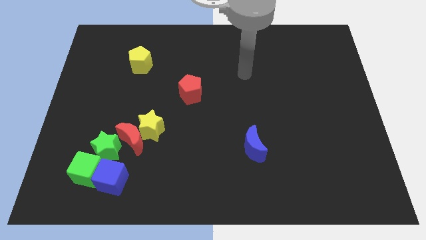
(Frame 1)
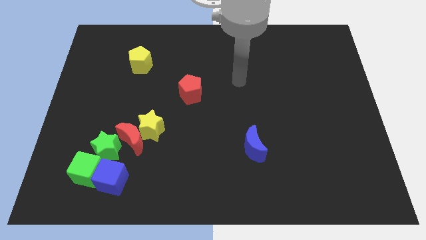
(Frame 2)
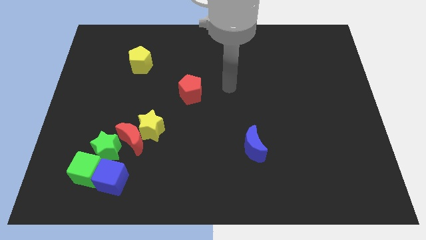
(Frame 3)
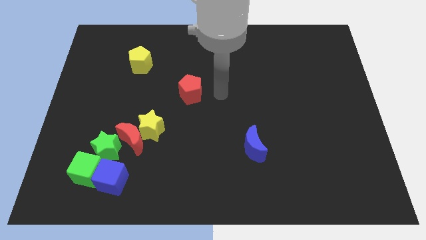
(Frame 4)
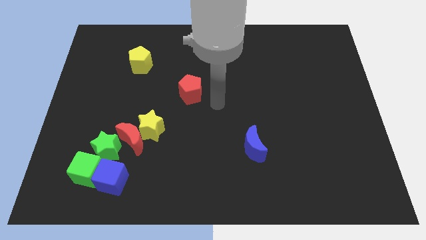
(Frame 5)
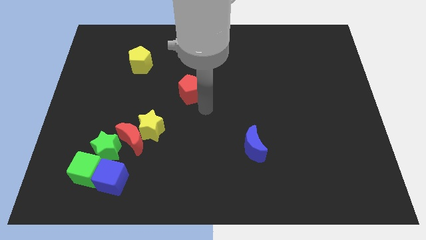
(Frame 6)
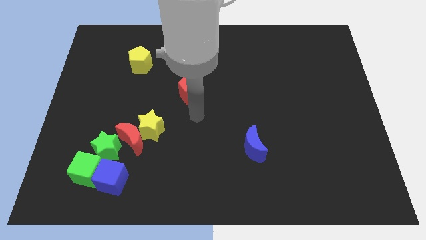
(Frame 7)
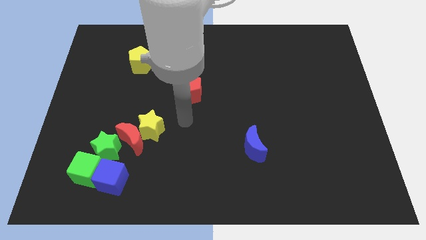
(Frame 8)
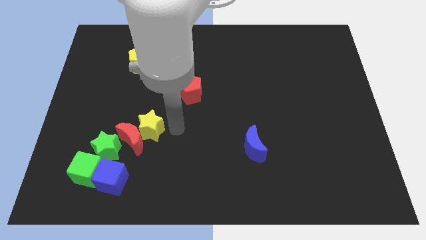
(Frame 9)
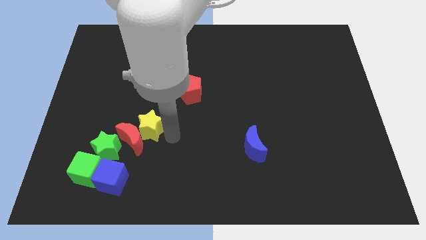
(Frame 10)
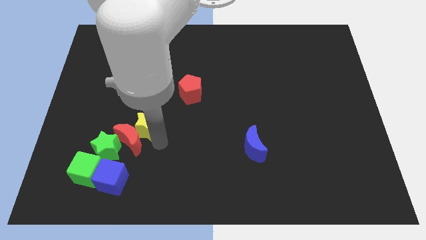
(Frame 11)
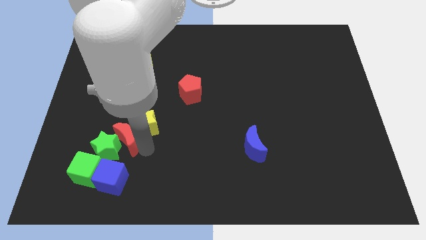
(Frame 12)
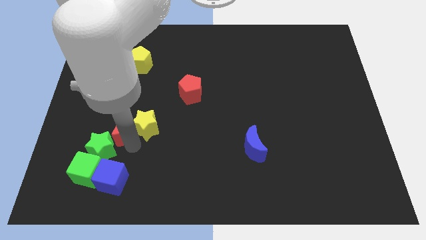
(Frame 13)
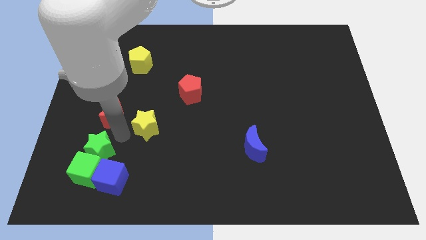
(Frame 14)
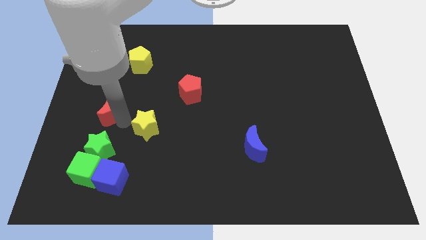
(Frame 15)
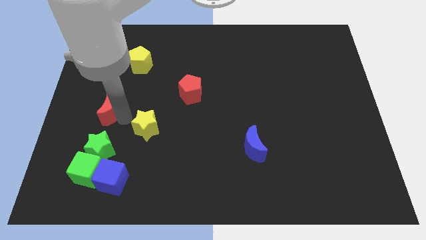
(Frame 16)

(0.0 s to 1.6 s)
move the yellow star away from the red moon

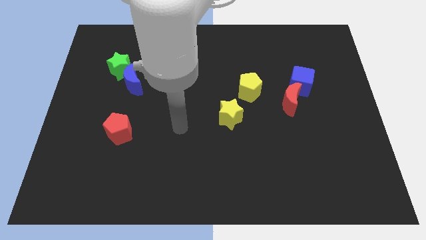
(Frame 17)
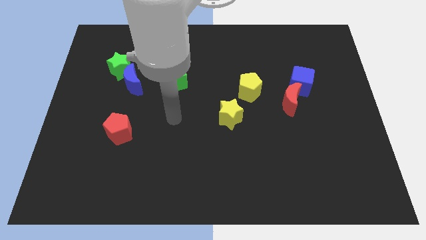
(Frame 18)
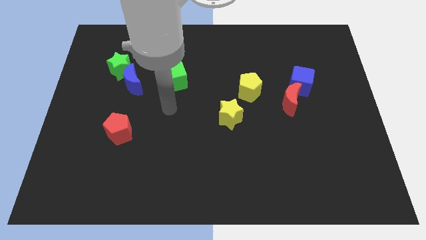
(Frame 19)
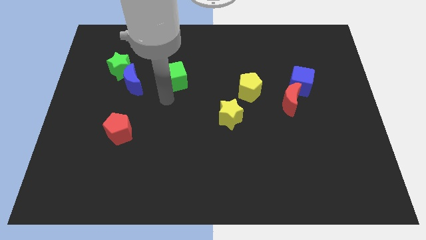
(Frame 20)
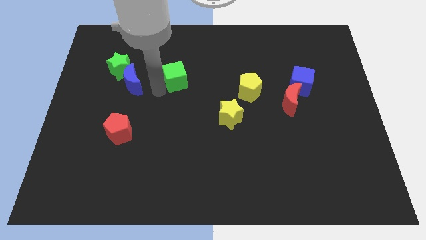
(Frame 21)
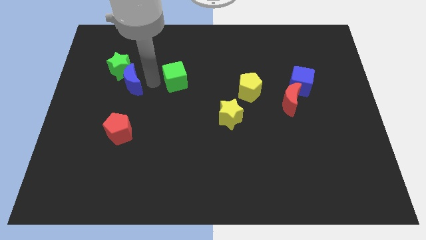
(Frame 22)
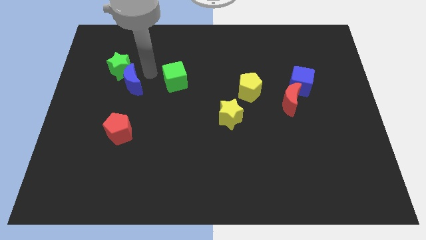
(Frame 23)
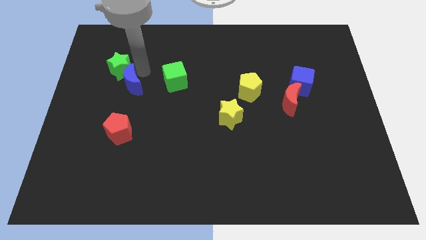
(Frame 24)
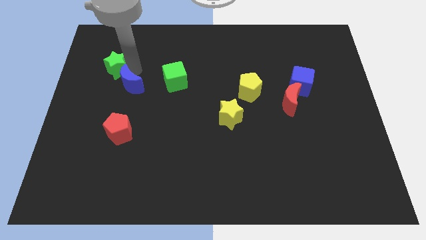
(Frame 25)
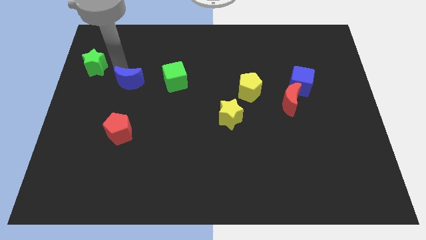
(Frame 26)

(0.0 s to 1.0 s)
separate the blue moon from the green star

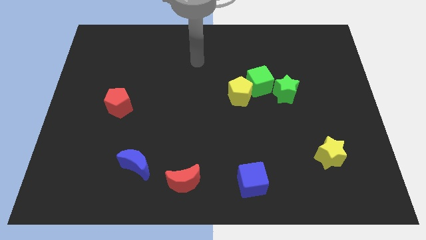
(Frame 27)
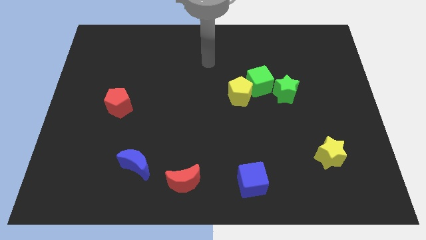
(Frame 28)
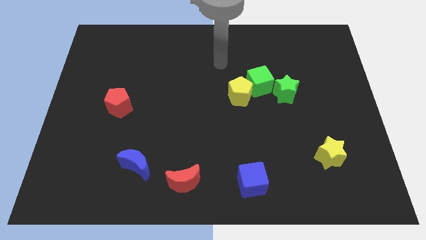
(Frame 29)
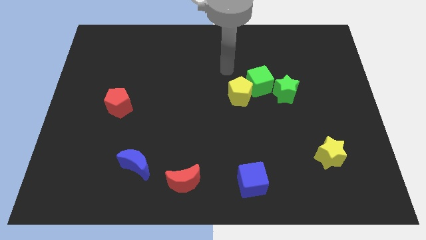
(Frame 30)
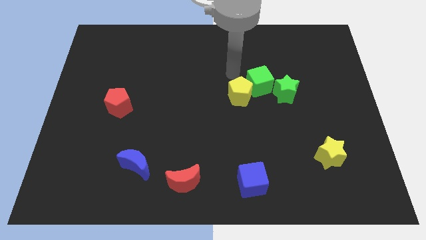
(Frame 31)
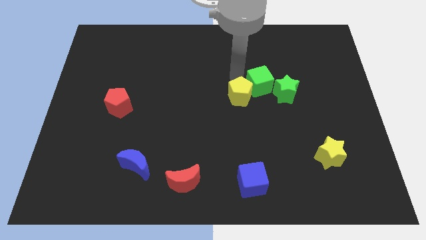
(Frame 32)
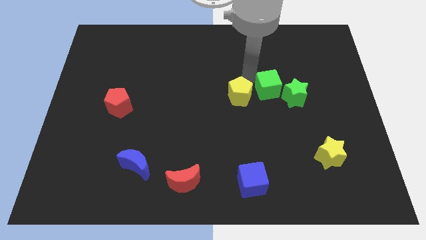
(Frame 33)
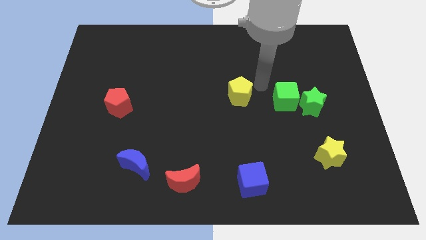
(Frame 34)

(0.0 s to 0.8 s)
pull the yellow pentagon apart from the green cube

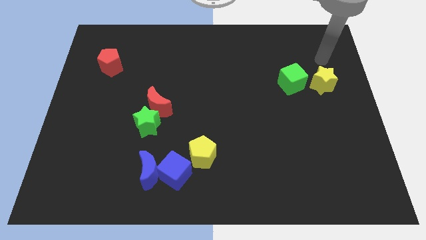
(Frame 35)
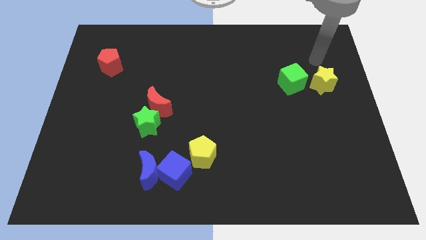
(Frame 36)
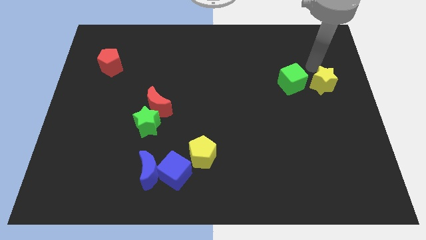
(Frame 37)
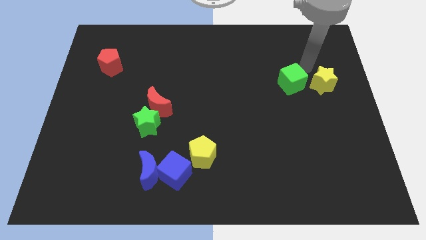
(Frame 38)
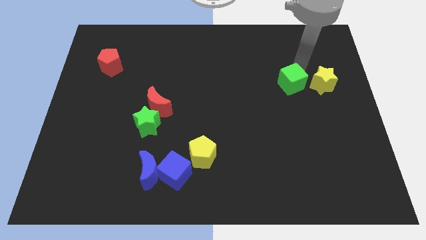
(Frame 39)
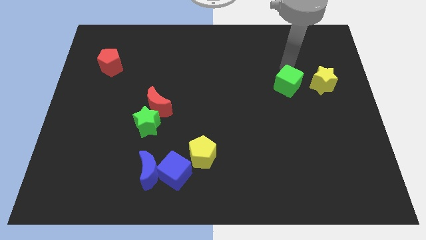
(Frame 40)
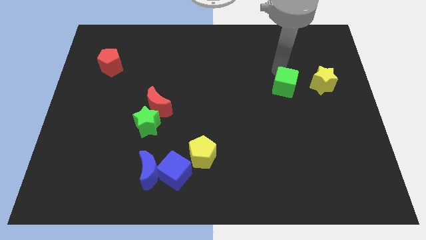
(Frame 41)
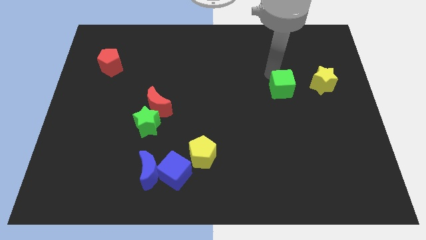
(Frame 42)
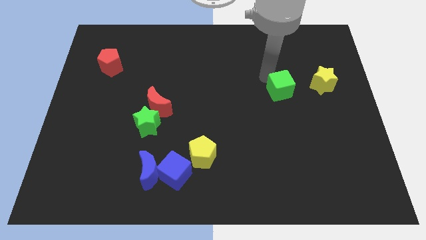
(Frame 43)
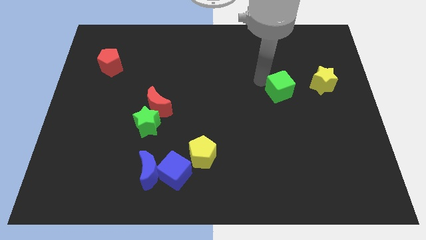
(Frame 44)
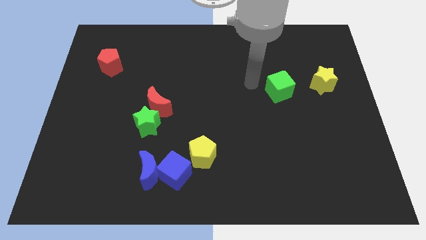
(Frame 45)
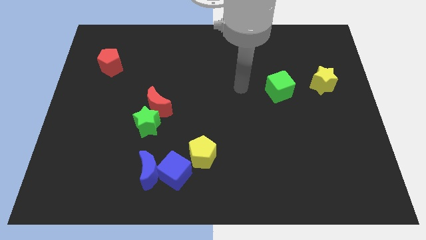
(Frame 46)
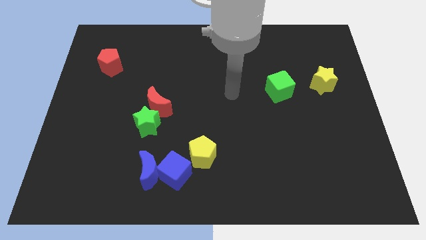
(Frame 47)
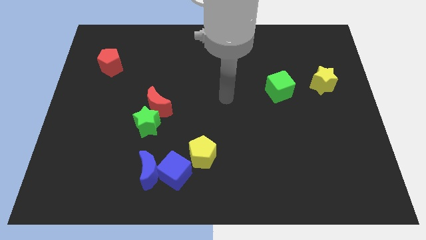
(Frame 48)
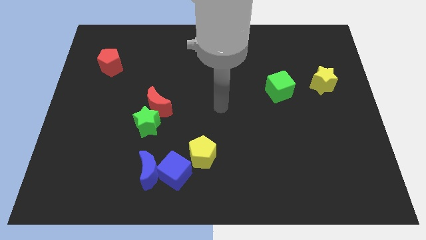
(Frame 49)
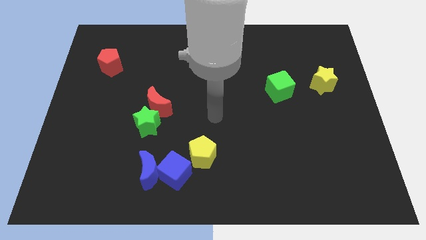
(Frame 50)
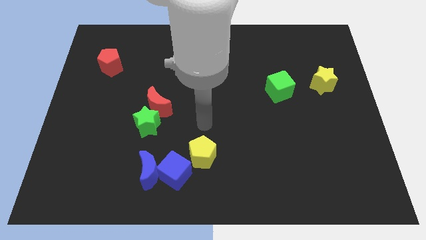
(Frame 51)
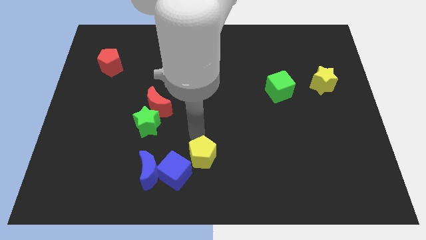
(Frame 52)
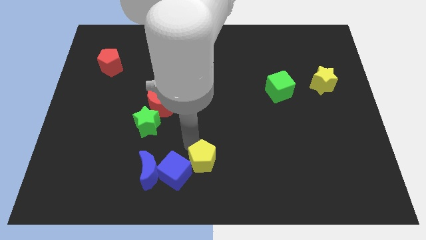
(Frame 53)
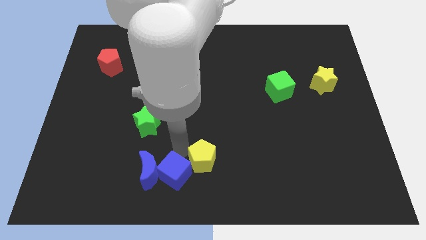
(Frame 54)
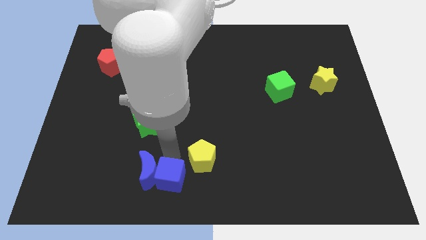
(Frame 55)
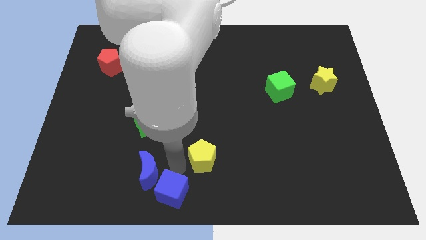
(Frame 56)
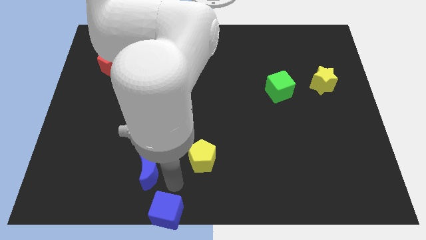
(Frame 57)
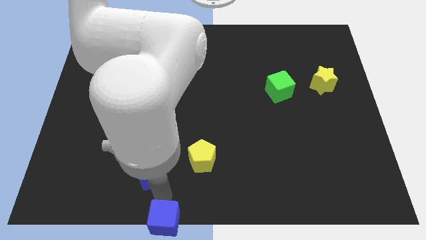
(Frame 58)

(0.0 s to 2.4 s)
pull the blue moon apart from the blue cube

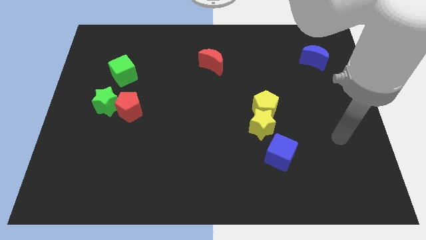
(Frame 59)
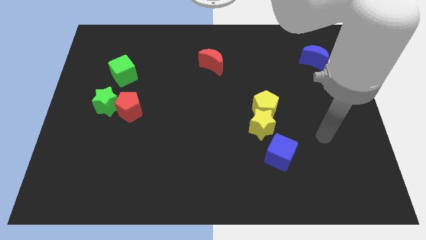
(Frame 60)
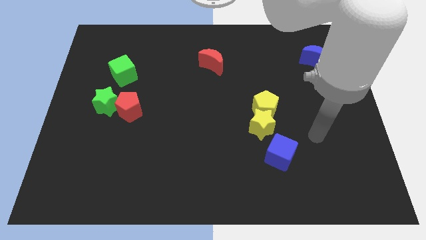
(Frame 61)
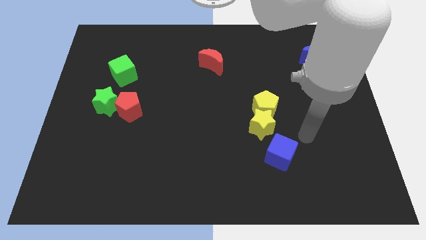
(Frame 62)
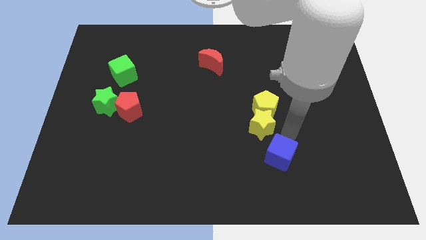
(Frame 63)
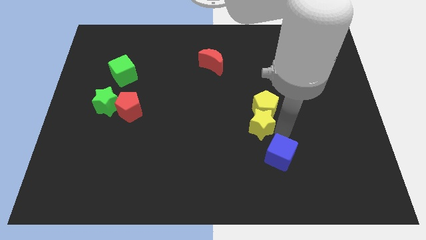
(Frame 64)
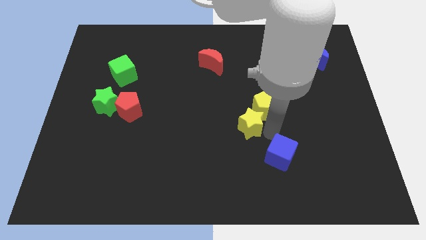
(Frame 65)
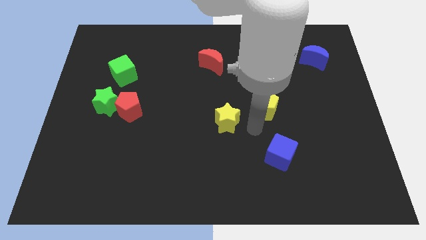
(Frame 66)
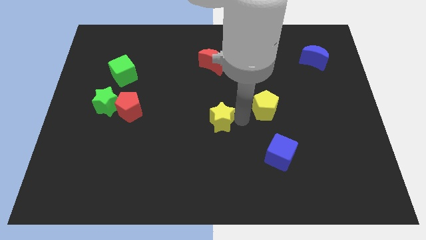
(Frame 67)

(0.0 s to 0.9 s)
pull the yellow pentagon apart from the yellow star

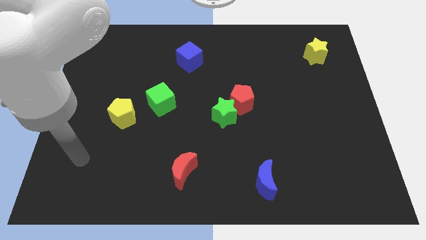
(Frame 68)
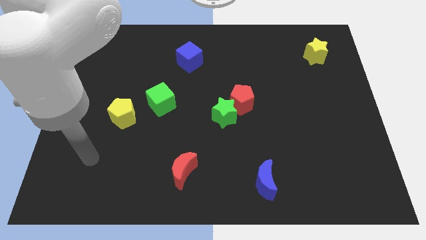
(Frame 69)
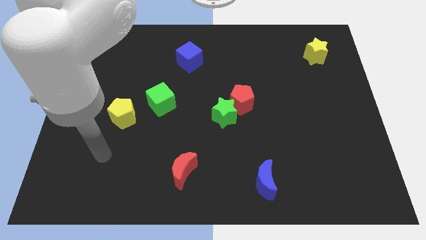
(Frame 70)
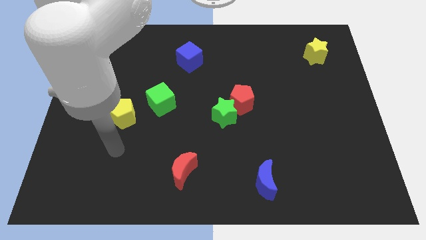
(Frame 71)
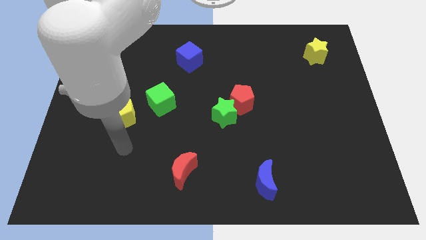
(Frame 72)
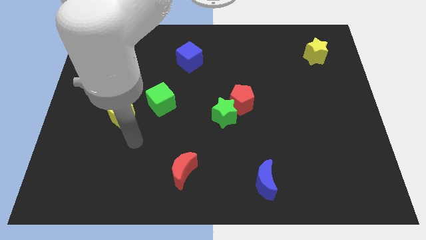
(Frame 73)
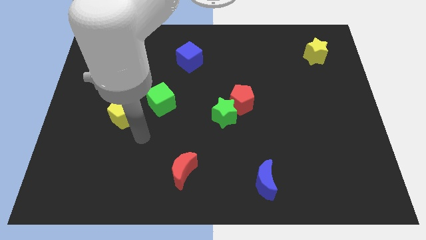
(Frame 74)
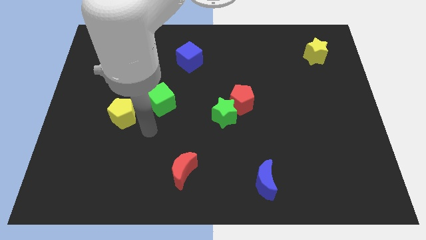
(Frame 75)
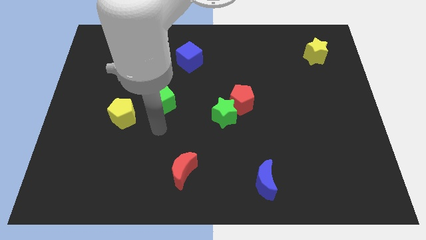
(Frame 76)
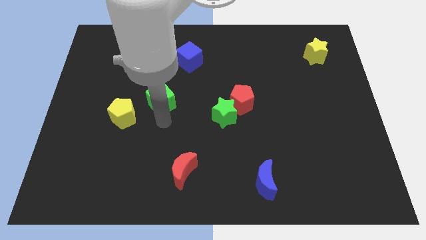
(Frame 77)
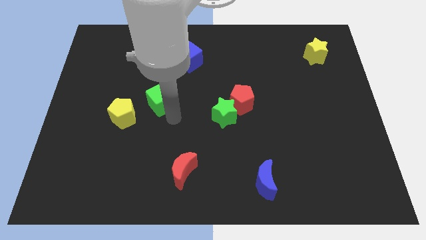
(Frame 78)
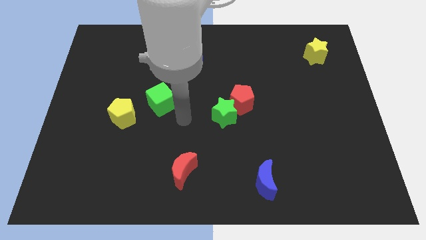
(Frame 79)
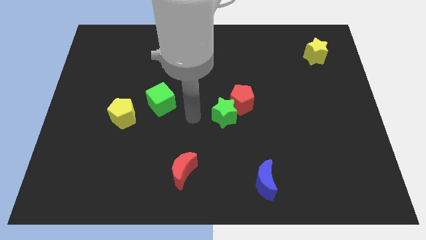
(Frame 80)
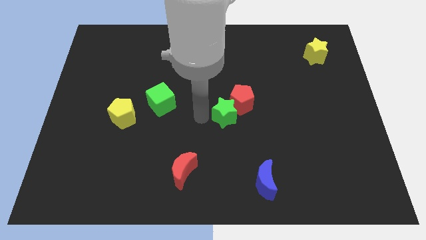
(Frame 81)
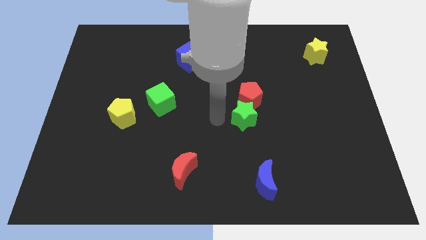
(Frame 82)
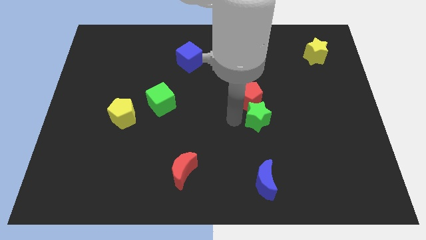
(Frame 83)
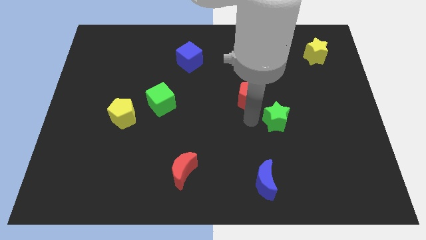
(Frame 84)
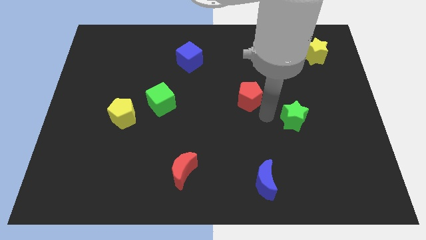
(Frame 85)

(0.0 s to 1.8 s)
move the red pentagon away from the green star

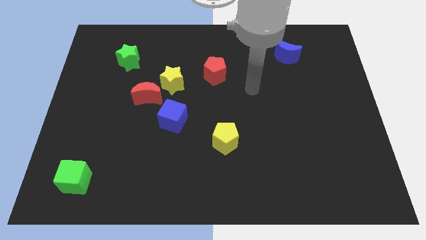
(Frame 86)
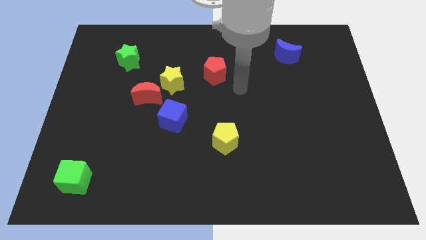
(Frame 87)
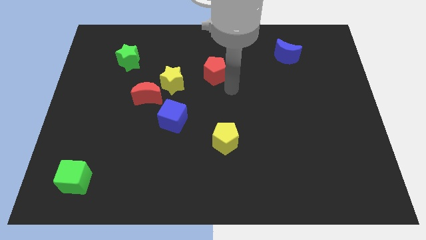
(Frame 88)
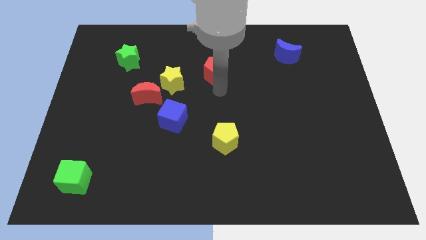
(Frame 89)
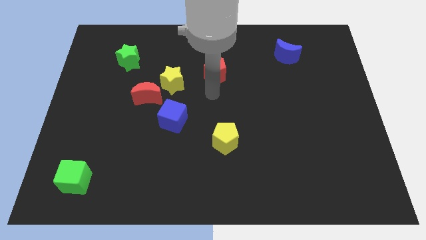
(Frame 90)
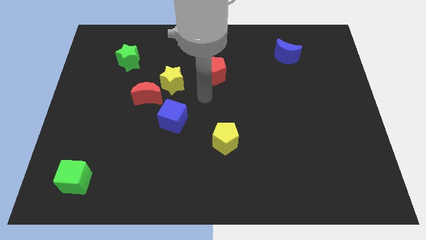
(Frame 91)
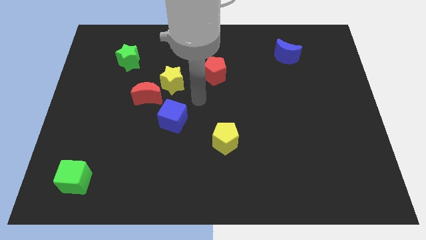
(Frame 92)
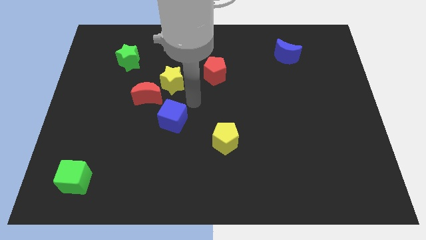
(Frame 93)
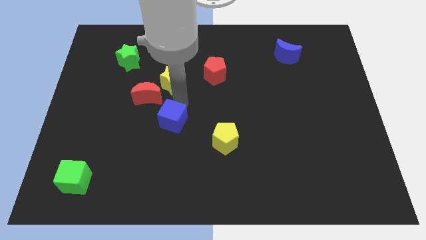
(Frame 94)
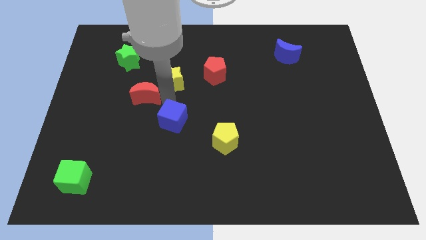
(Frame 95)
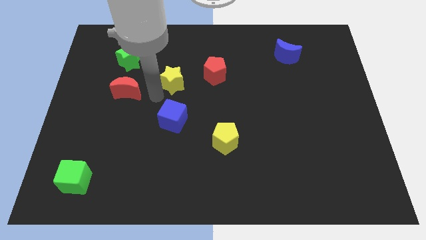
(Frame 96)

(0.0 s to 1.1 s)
separate the yellow star from the red moon
